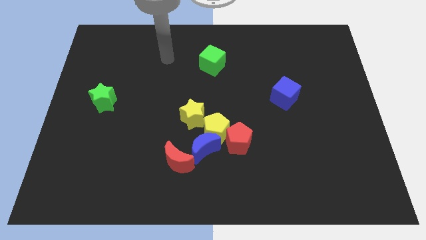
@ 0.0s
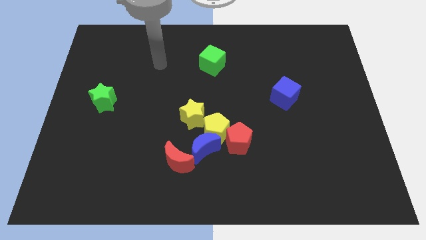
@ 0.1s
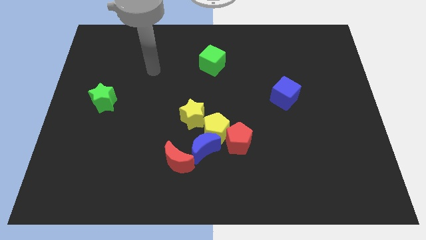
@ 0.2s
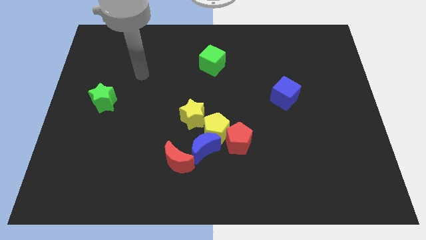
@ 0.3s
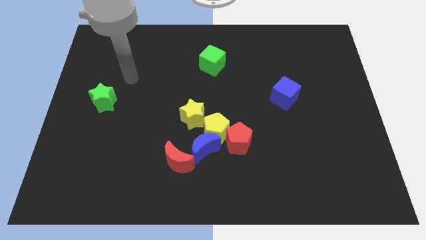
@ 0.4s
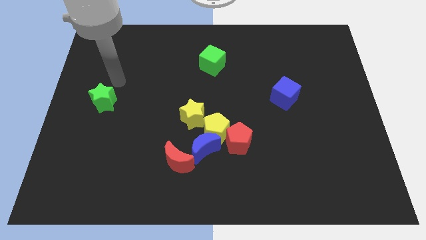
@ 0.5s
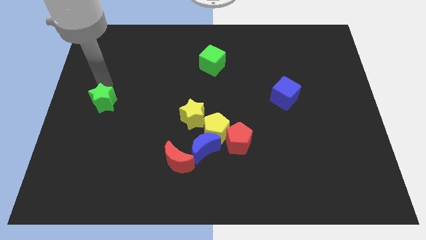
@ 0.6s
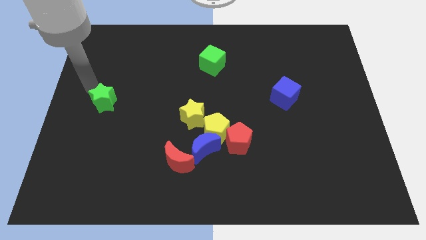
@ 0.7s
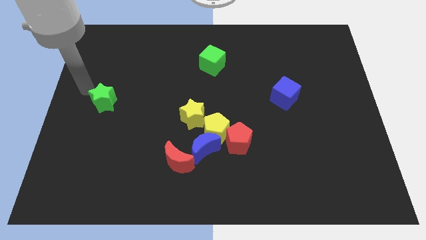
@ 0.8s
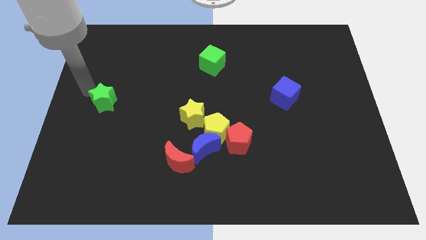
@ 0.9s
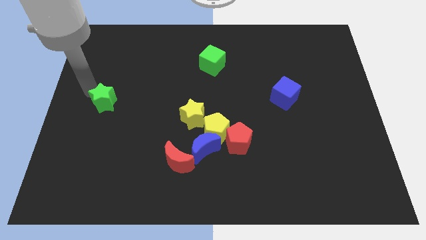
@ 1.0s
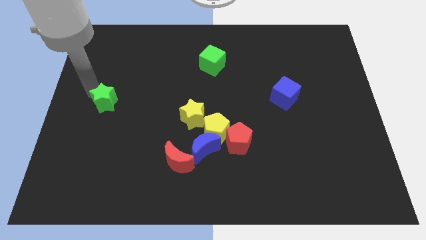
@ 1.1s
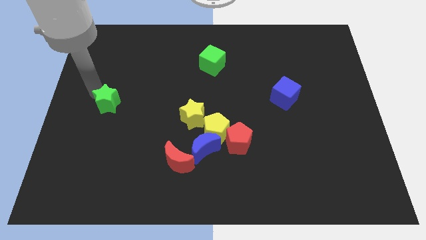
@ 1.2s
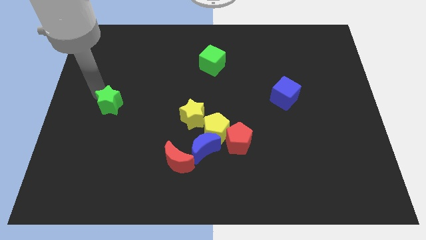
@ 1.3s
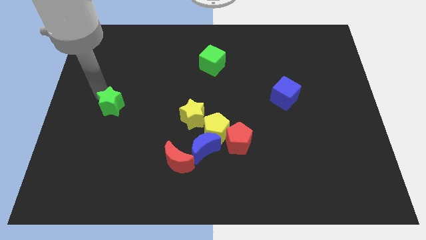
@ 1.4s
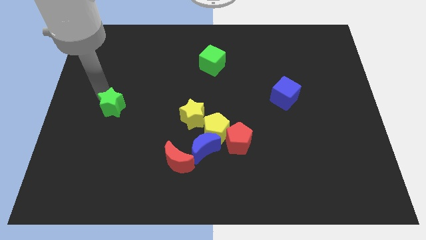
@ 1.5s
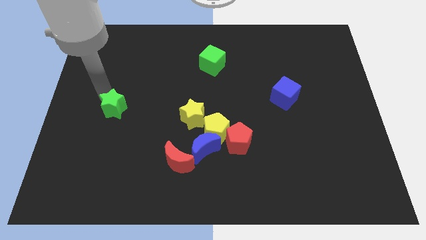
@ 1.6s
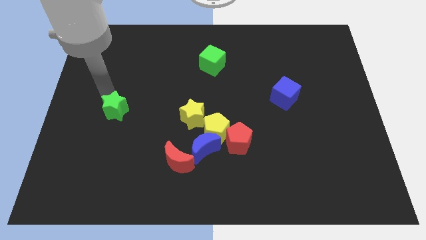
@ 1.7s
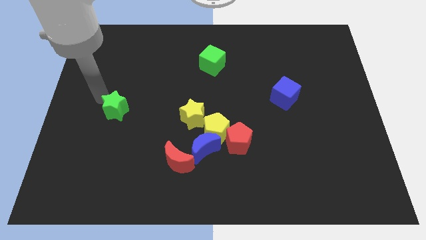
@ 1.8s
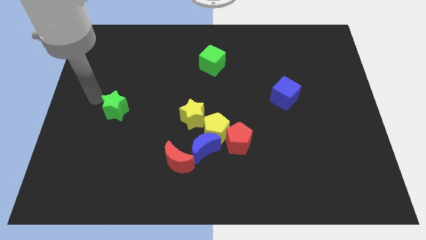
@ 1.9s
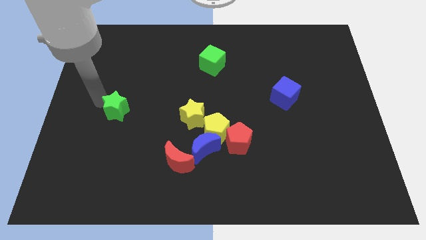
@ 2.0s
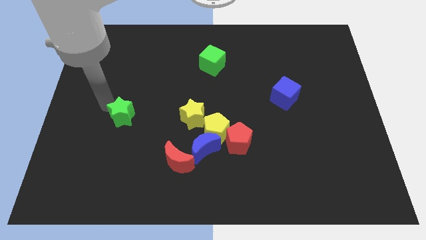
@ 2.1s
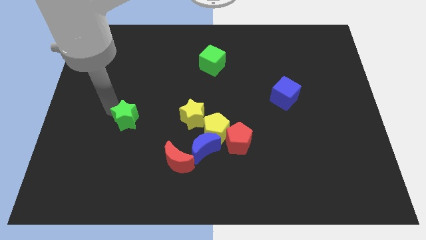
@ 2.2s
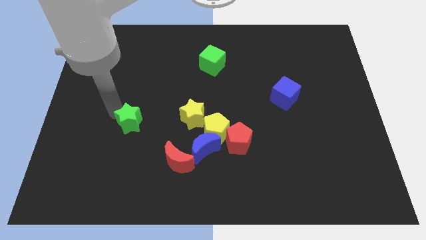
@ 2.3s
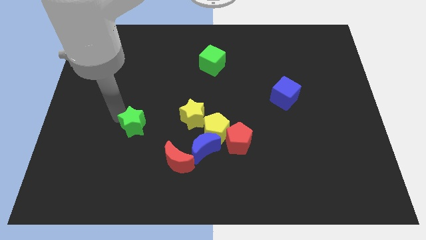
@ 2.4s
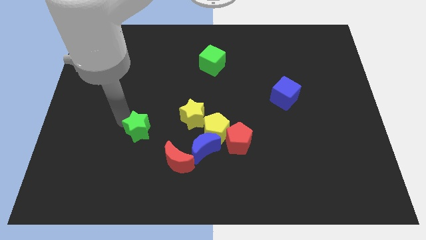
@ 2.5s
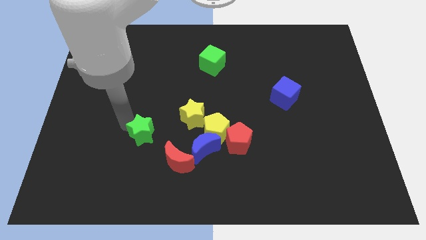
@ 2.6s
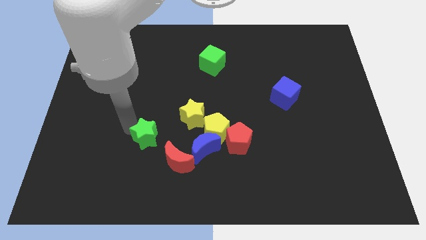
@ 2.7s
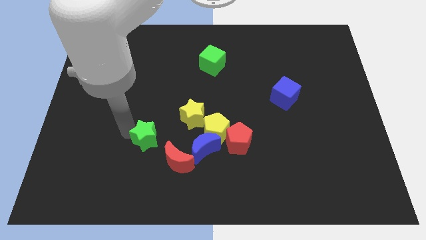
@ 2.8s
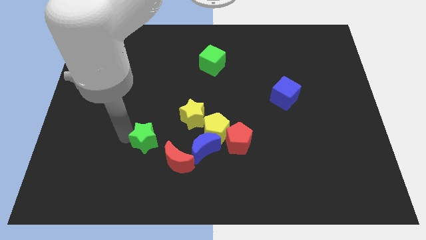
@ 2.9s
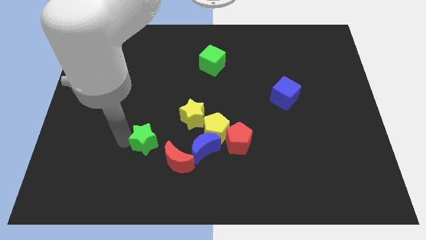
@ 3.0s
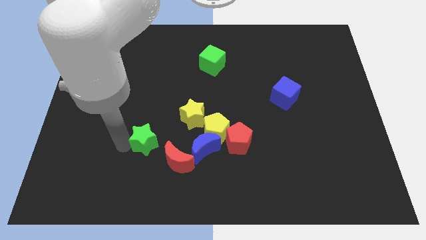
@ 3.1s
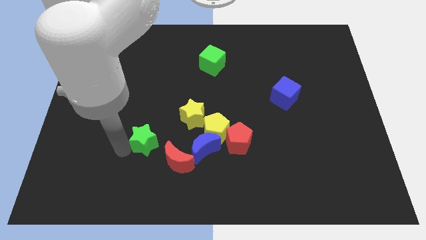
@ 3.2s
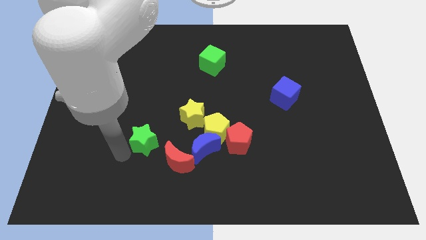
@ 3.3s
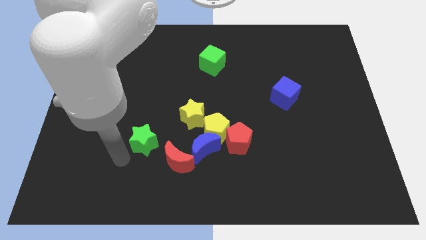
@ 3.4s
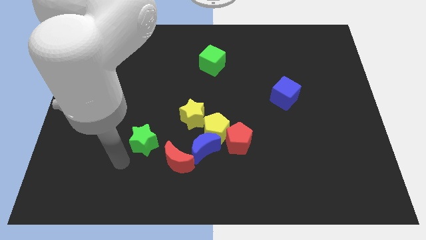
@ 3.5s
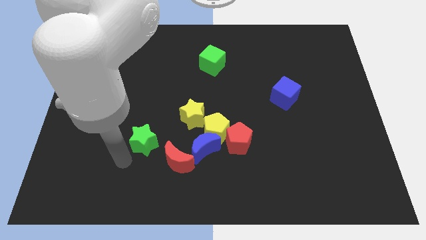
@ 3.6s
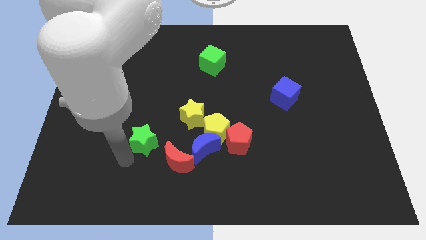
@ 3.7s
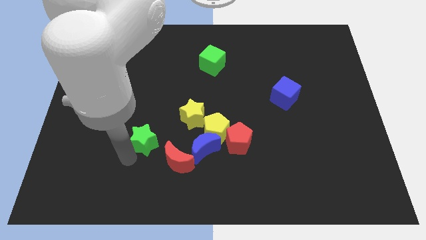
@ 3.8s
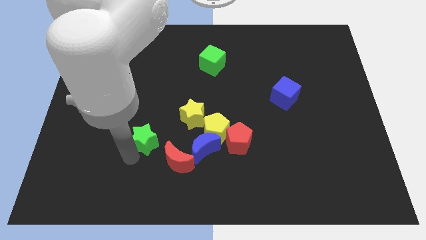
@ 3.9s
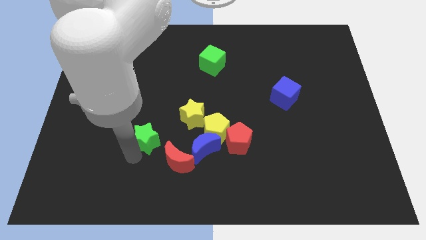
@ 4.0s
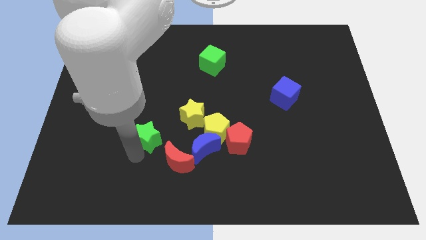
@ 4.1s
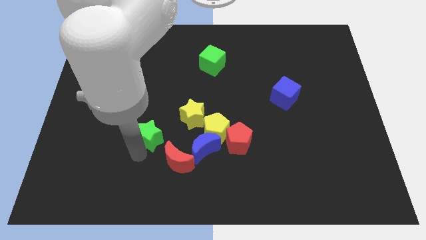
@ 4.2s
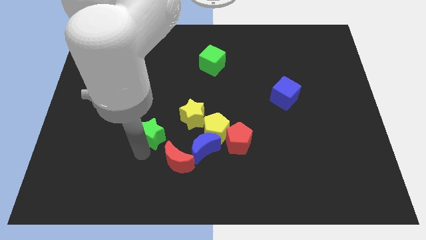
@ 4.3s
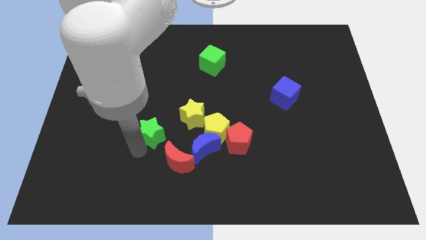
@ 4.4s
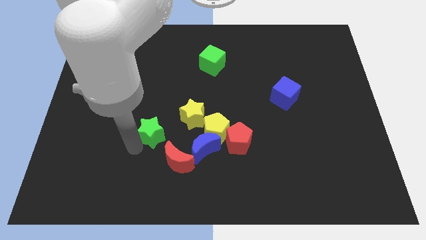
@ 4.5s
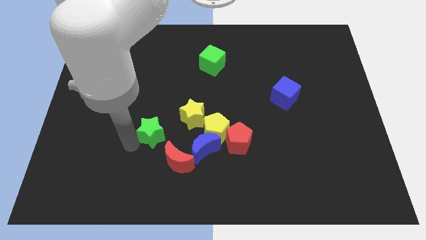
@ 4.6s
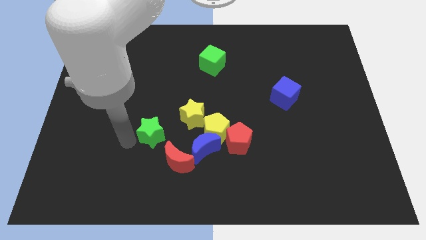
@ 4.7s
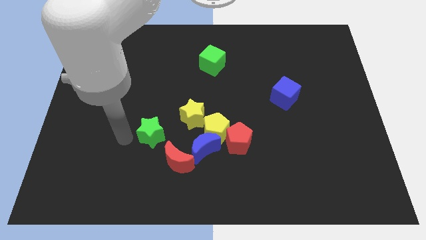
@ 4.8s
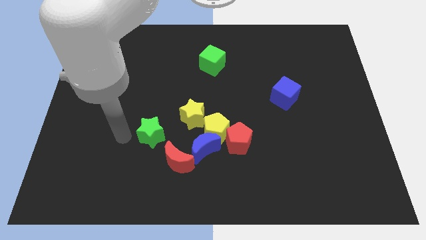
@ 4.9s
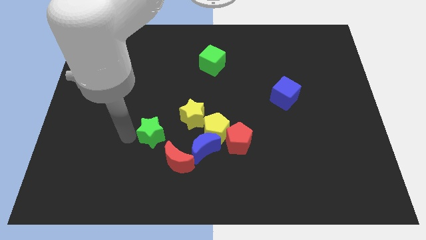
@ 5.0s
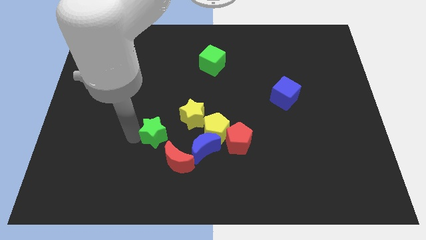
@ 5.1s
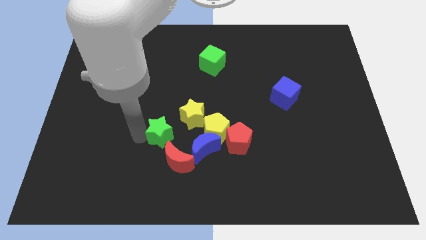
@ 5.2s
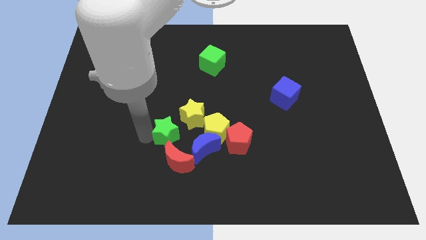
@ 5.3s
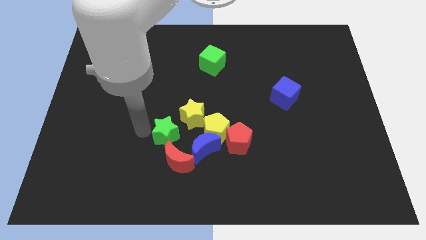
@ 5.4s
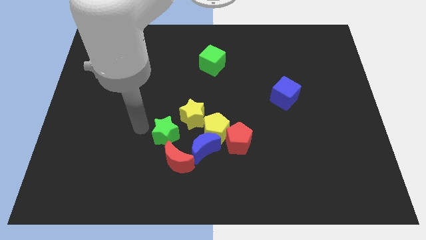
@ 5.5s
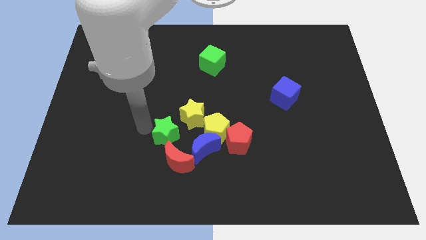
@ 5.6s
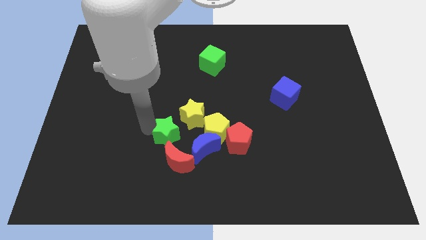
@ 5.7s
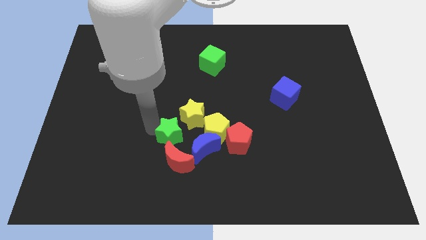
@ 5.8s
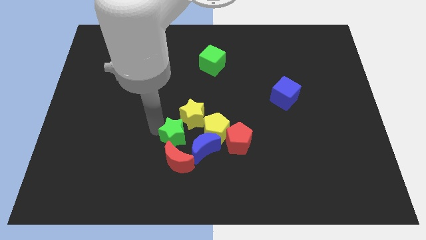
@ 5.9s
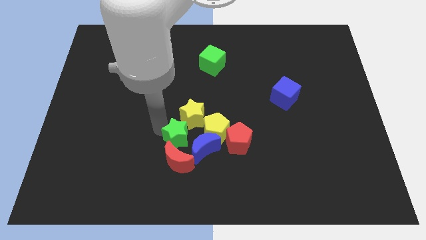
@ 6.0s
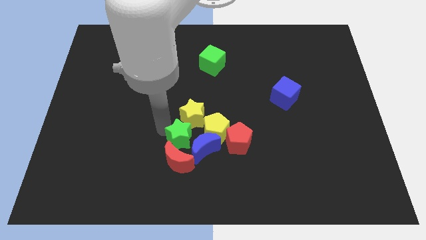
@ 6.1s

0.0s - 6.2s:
put the green star to the blue moon

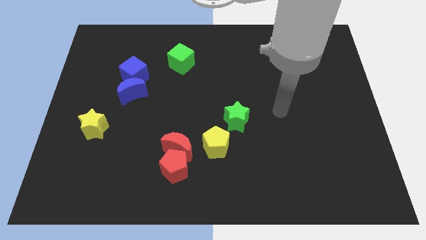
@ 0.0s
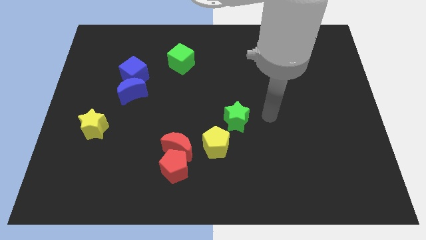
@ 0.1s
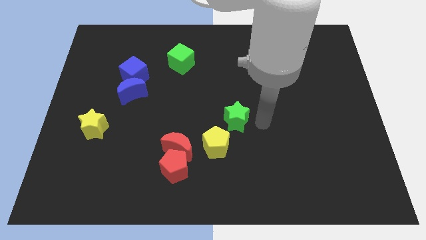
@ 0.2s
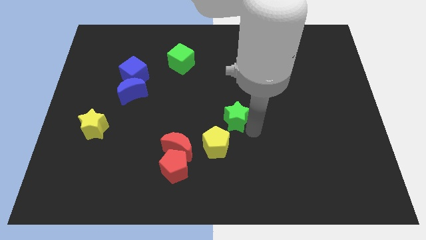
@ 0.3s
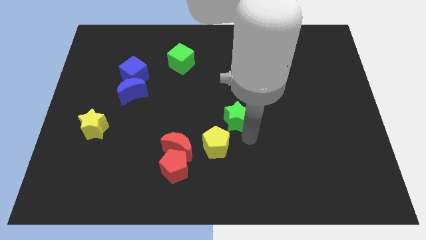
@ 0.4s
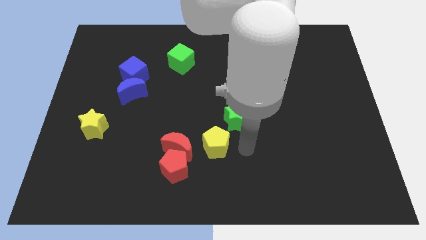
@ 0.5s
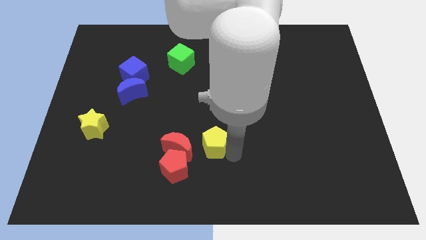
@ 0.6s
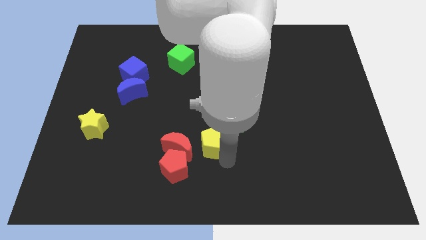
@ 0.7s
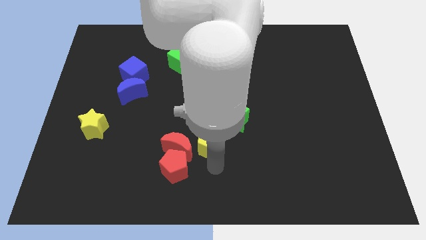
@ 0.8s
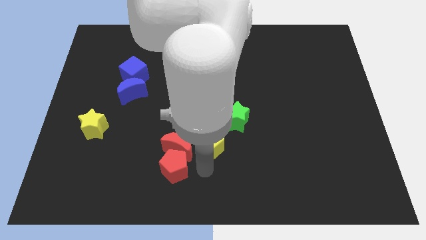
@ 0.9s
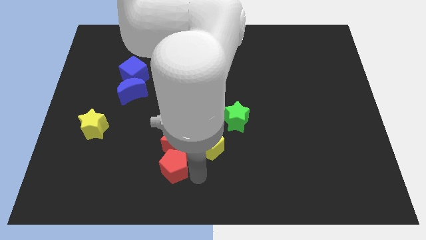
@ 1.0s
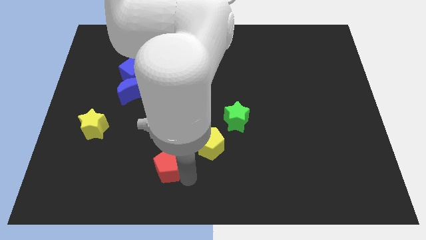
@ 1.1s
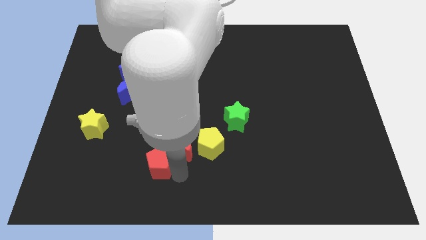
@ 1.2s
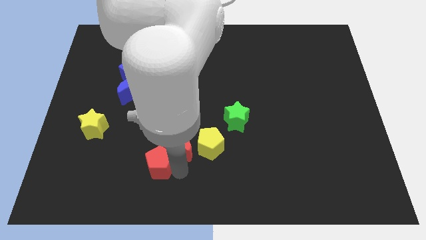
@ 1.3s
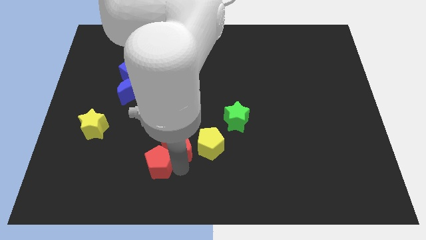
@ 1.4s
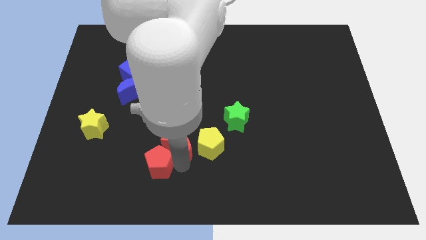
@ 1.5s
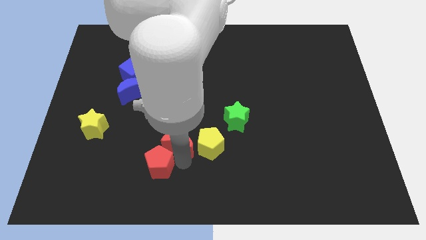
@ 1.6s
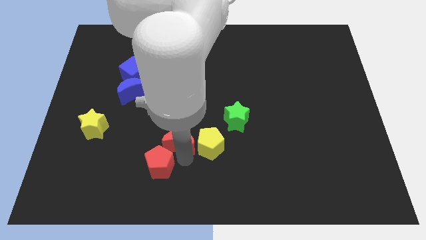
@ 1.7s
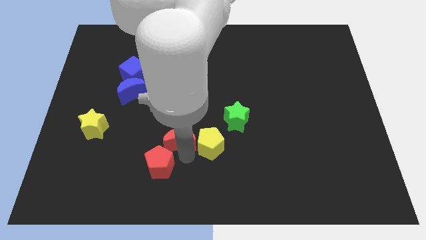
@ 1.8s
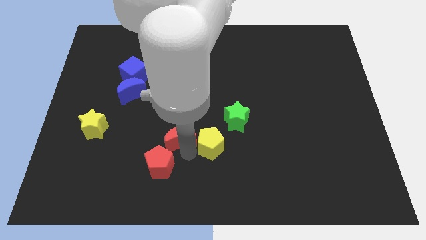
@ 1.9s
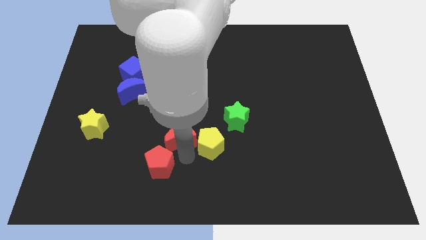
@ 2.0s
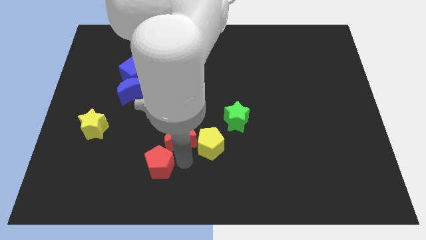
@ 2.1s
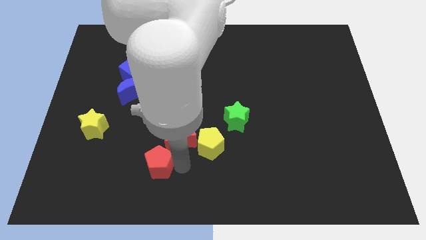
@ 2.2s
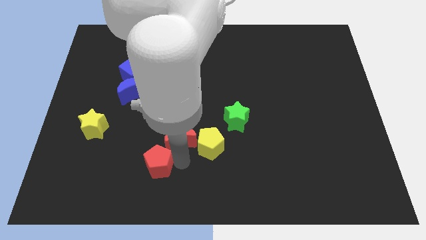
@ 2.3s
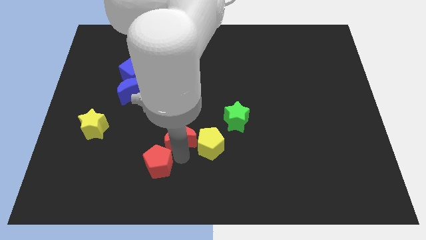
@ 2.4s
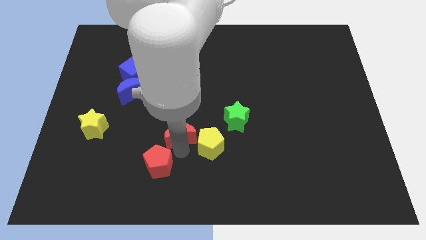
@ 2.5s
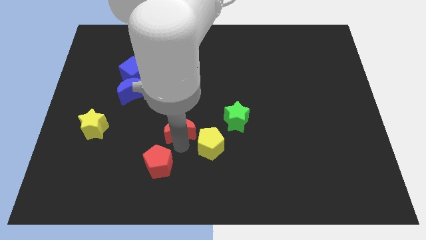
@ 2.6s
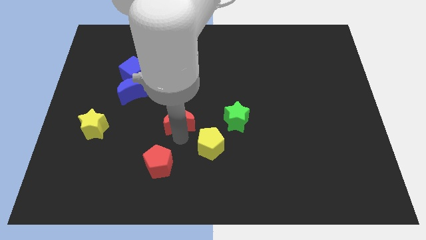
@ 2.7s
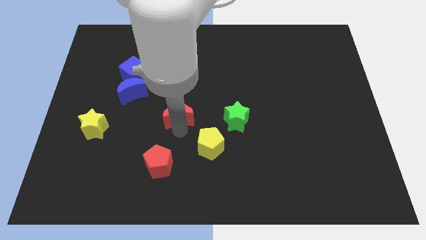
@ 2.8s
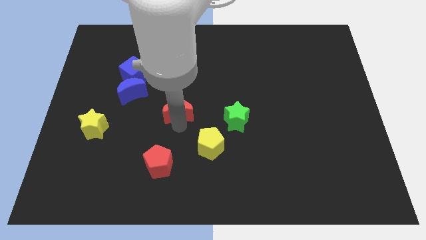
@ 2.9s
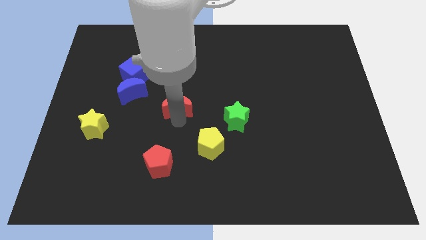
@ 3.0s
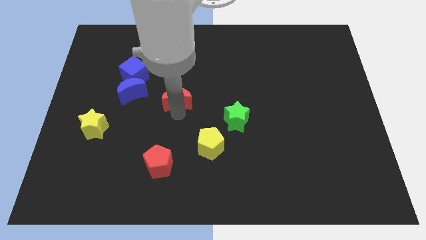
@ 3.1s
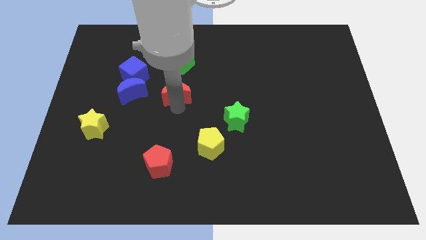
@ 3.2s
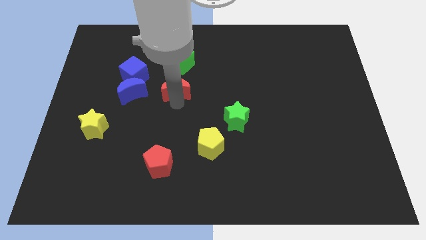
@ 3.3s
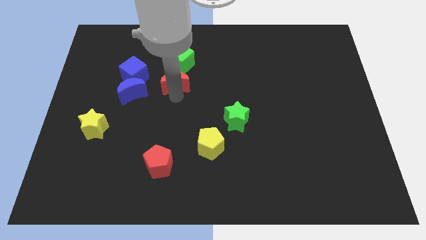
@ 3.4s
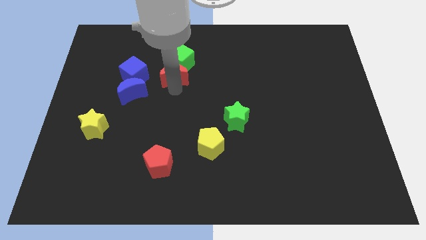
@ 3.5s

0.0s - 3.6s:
move the red moon towards the green cube
